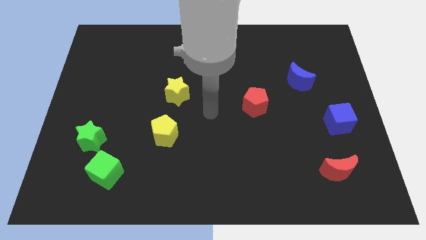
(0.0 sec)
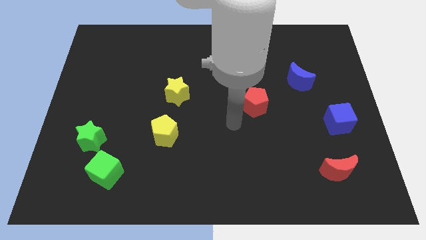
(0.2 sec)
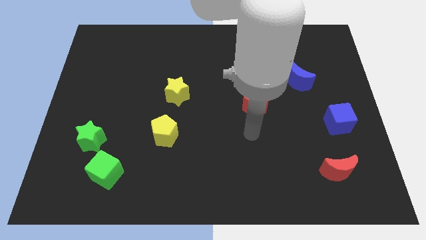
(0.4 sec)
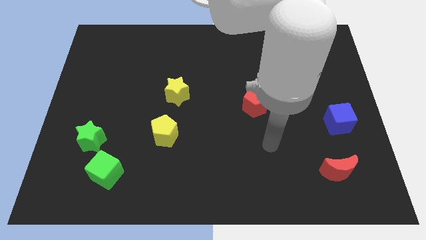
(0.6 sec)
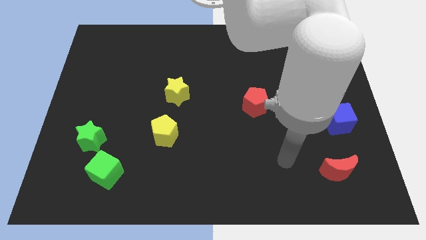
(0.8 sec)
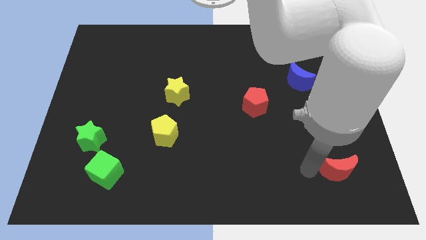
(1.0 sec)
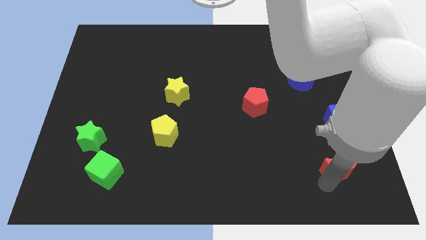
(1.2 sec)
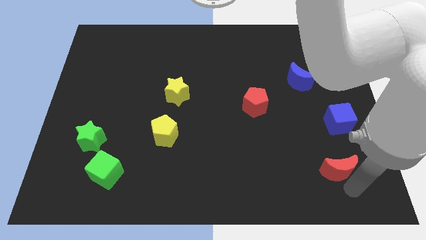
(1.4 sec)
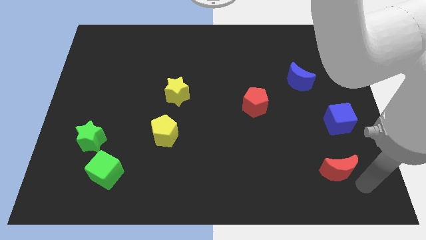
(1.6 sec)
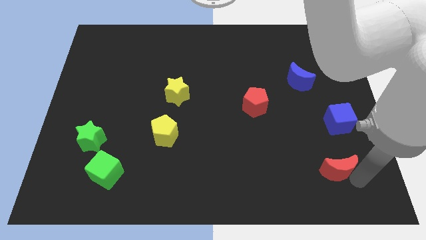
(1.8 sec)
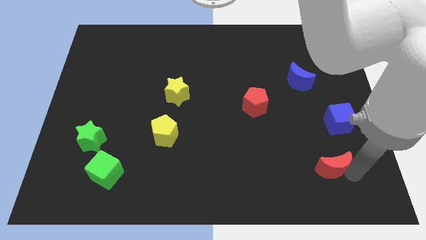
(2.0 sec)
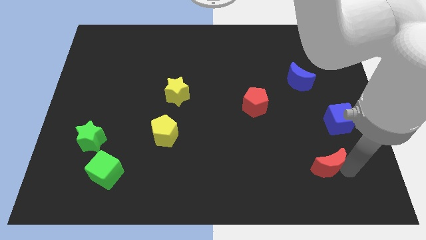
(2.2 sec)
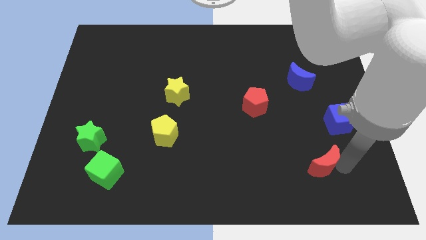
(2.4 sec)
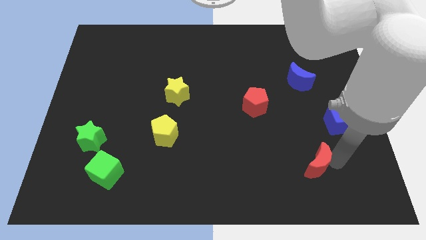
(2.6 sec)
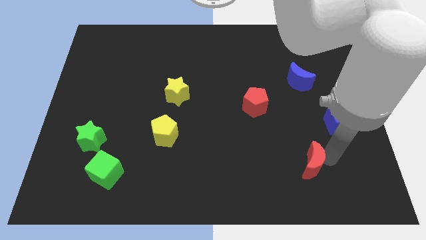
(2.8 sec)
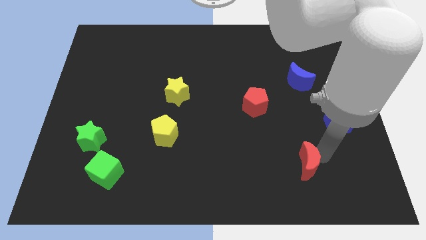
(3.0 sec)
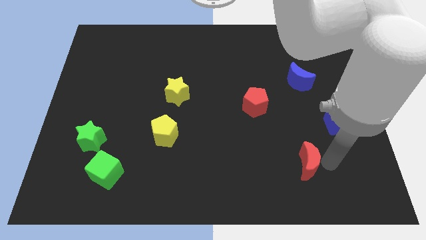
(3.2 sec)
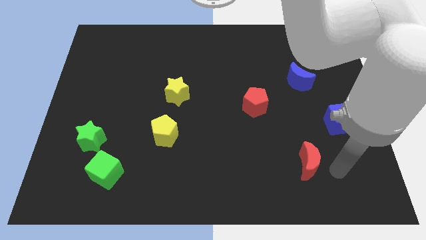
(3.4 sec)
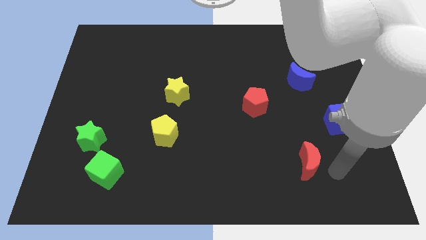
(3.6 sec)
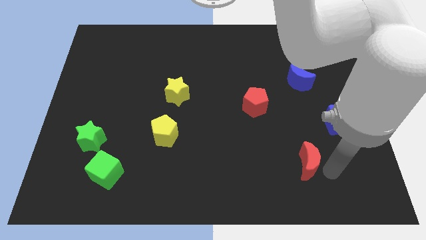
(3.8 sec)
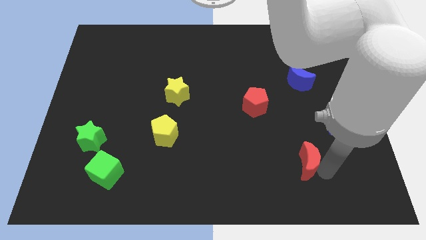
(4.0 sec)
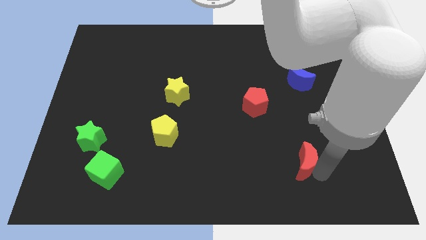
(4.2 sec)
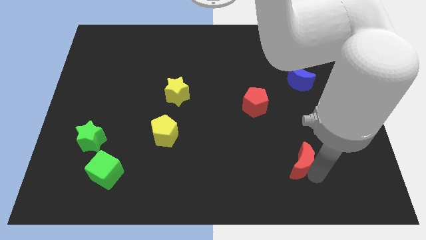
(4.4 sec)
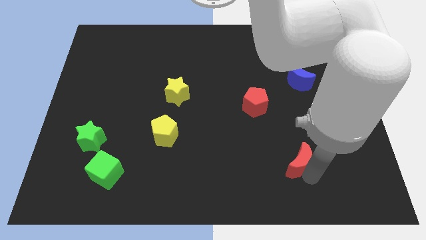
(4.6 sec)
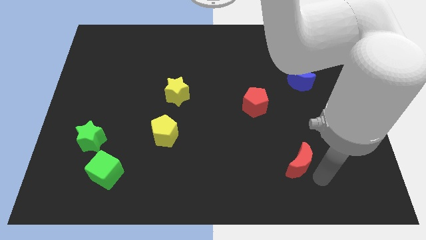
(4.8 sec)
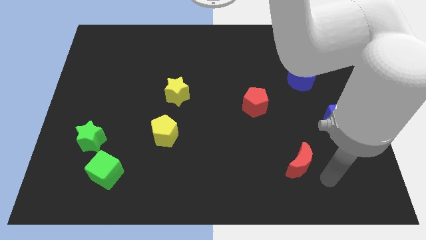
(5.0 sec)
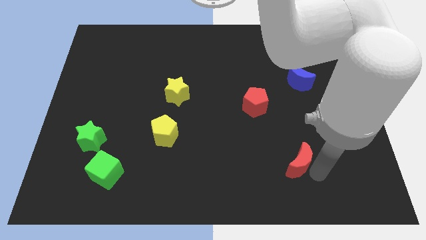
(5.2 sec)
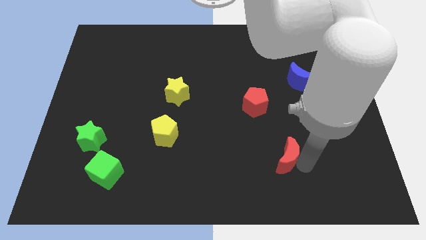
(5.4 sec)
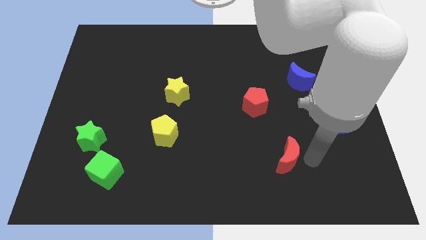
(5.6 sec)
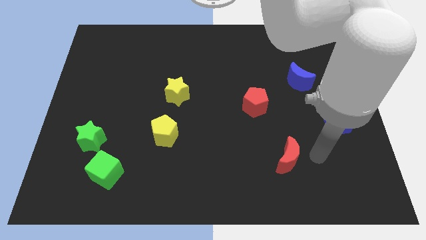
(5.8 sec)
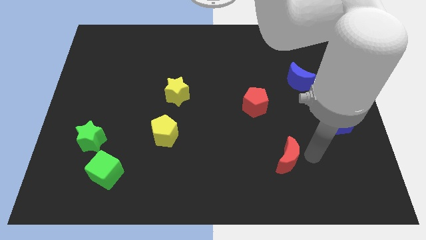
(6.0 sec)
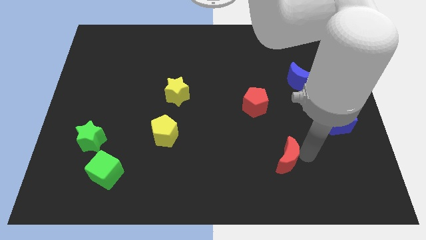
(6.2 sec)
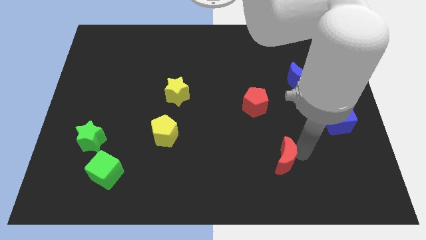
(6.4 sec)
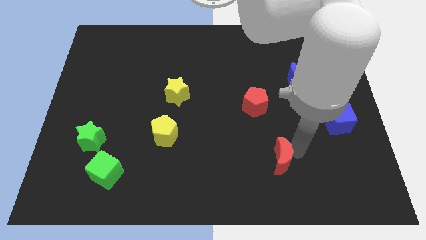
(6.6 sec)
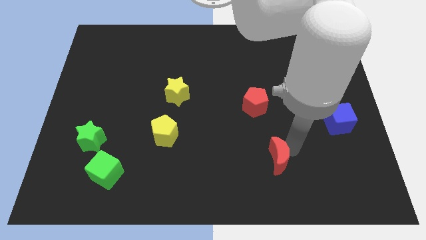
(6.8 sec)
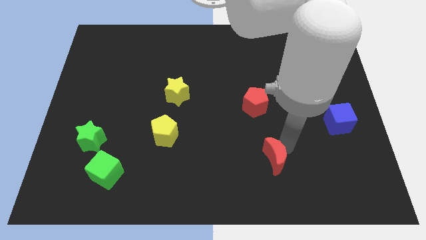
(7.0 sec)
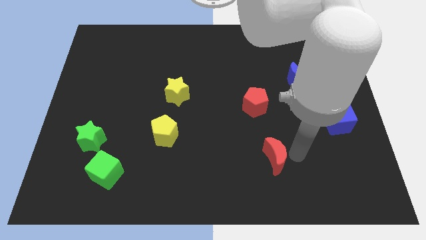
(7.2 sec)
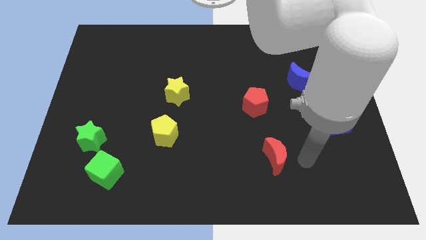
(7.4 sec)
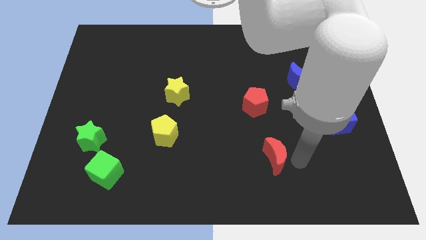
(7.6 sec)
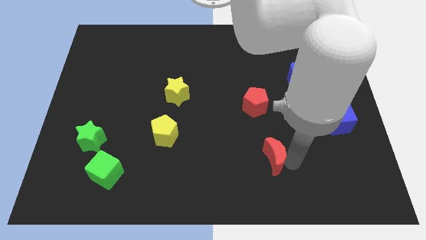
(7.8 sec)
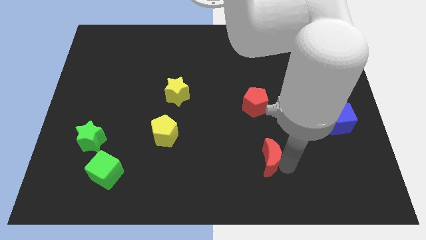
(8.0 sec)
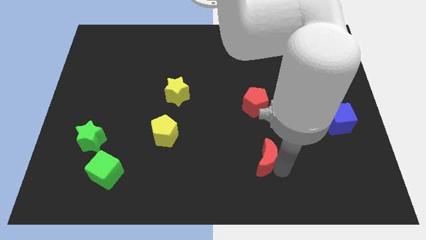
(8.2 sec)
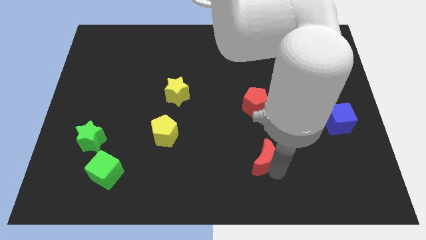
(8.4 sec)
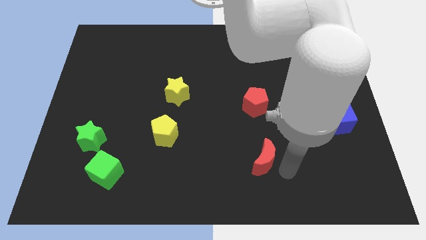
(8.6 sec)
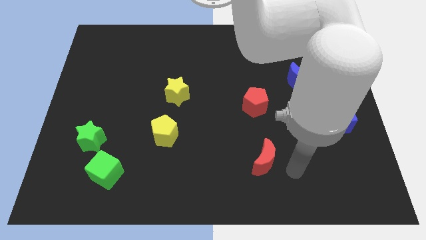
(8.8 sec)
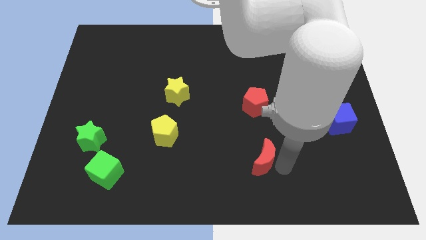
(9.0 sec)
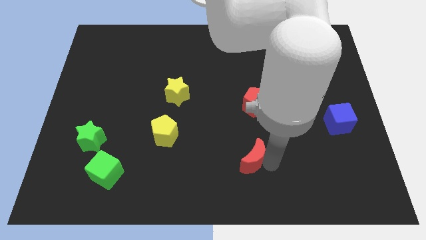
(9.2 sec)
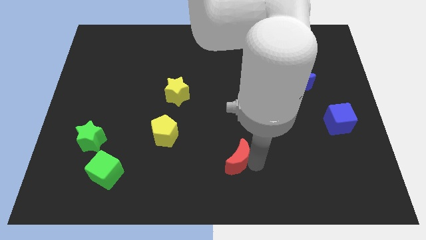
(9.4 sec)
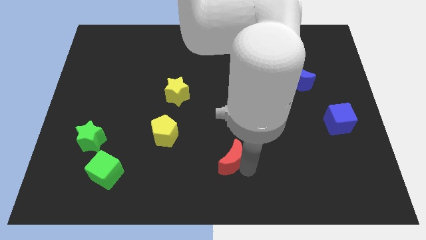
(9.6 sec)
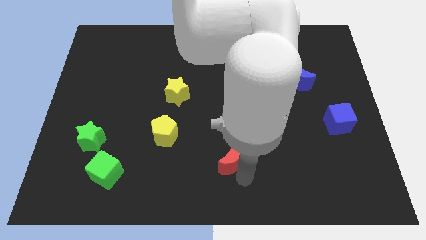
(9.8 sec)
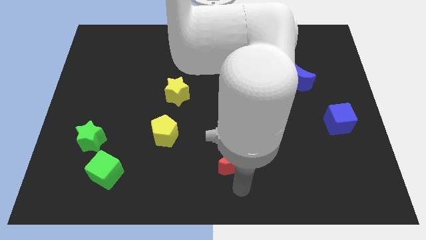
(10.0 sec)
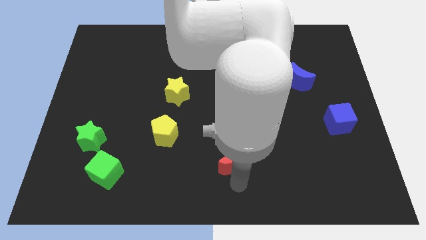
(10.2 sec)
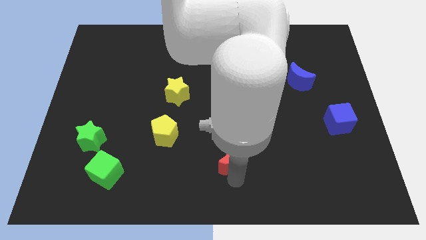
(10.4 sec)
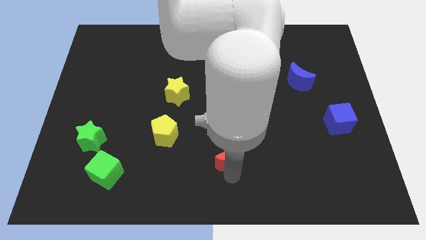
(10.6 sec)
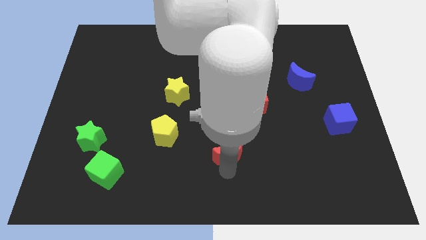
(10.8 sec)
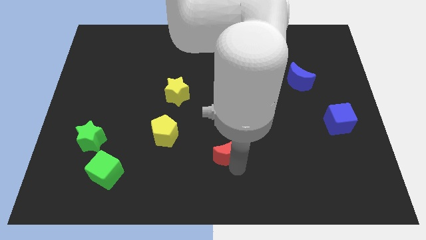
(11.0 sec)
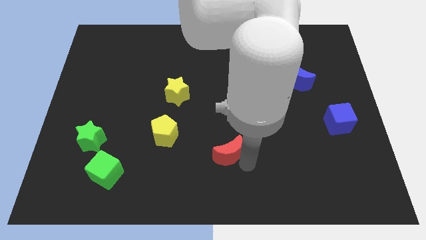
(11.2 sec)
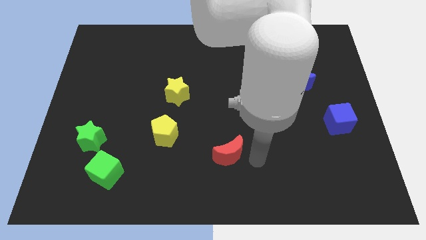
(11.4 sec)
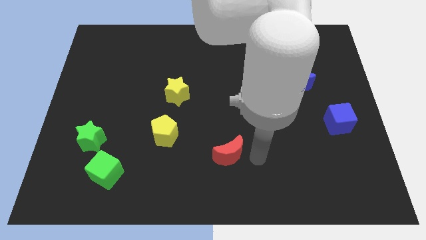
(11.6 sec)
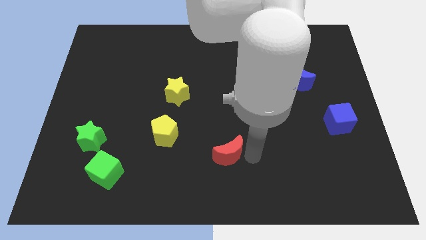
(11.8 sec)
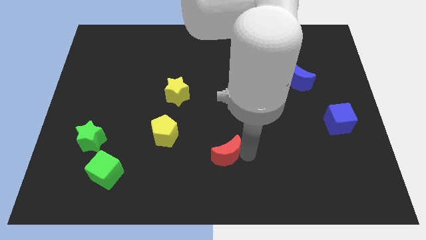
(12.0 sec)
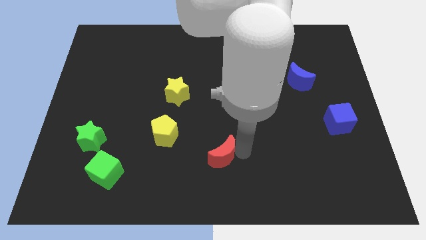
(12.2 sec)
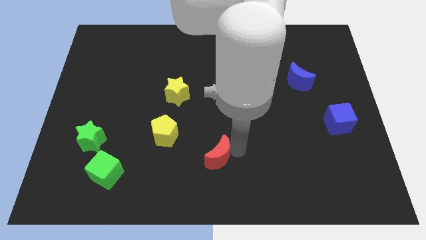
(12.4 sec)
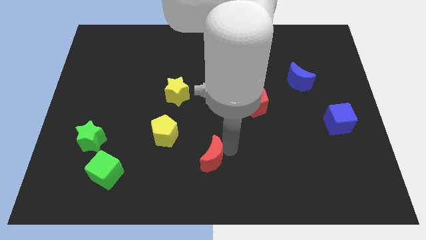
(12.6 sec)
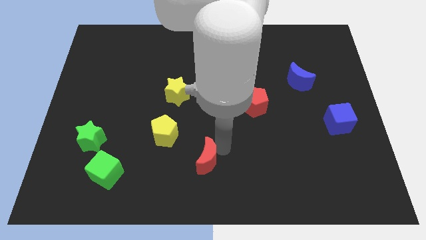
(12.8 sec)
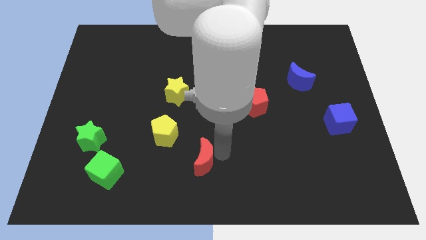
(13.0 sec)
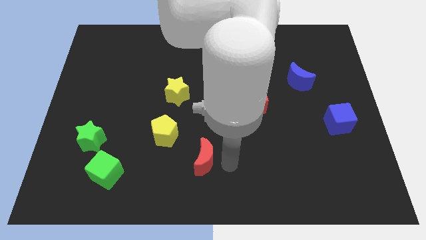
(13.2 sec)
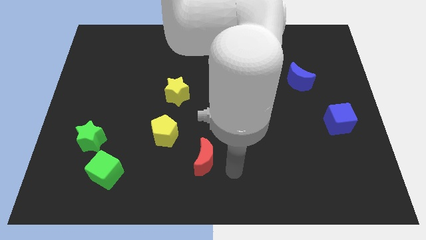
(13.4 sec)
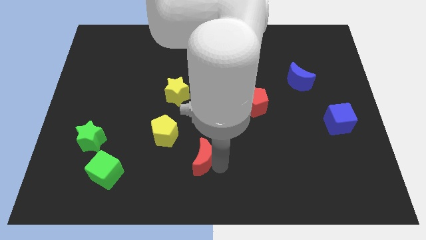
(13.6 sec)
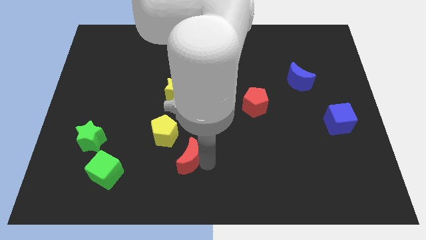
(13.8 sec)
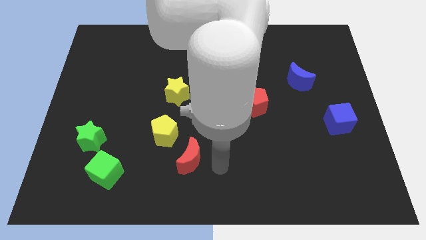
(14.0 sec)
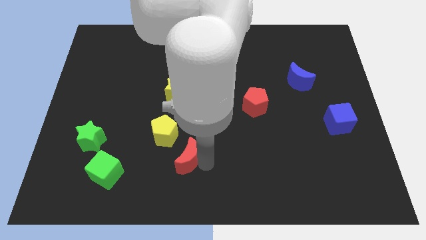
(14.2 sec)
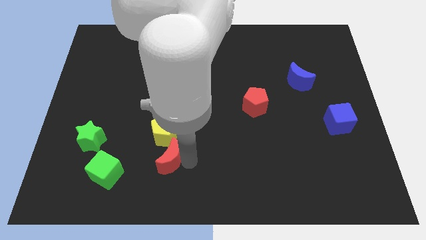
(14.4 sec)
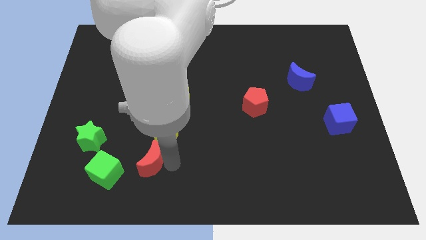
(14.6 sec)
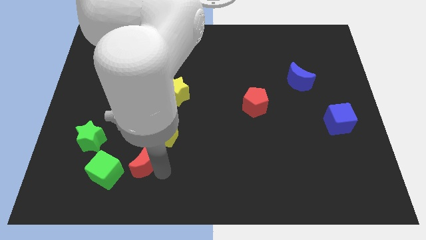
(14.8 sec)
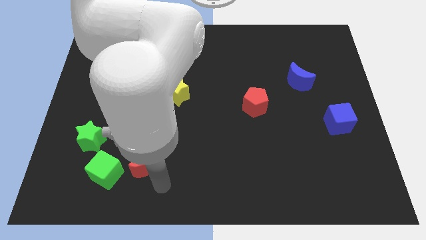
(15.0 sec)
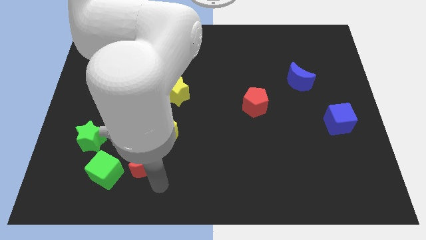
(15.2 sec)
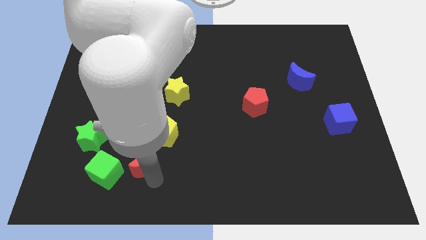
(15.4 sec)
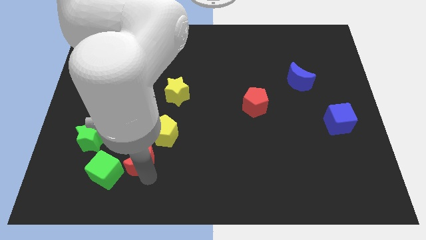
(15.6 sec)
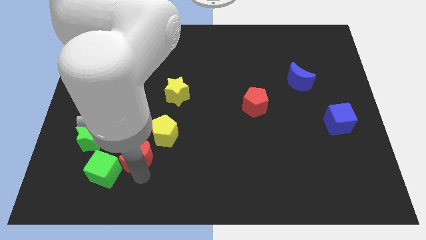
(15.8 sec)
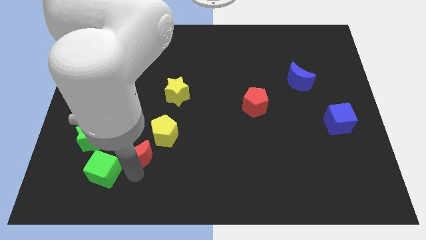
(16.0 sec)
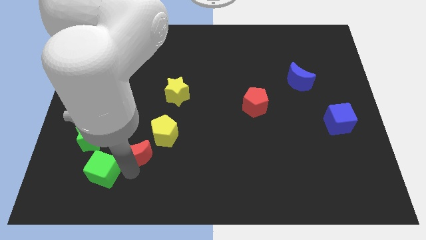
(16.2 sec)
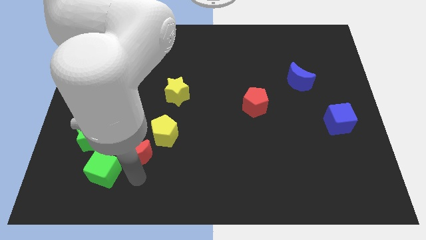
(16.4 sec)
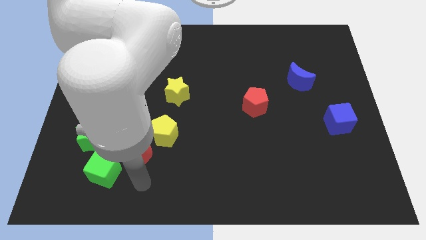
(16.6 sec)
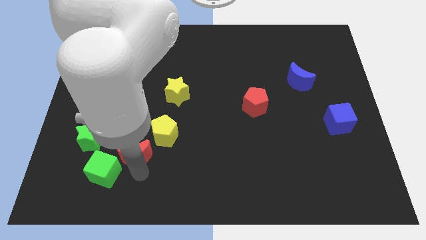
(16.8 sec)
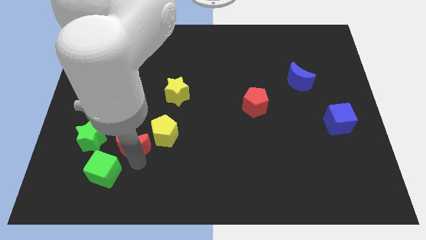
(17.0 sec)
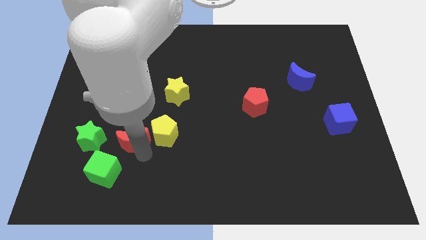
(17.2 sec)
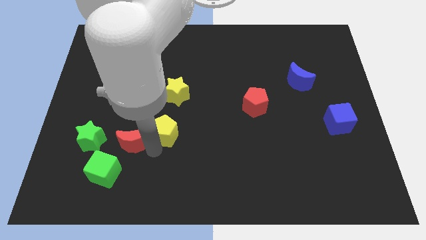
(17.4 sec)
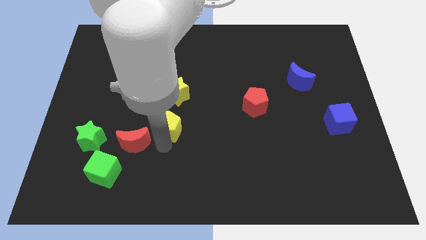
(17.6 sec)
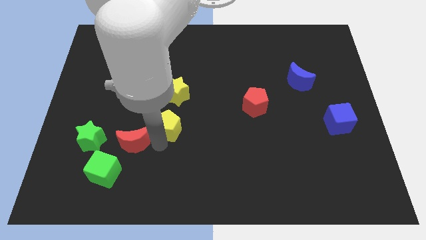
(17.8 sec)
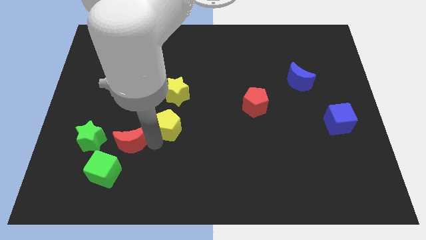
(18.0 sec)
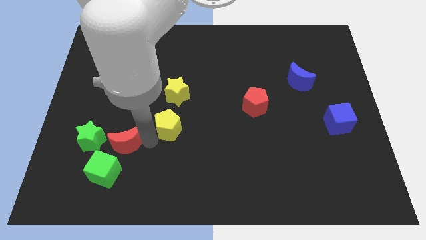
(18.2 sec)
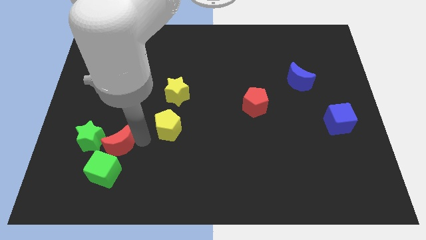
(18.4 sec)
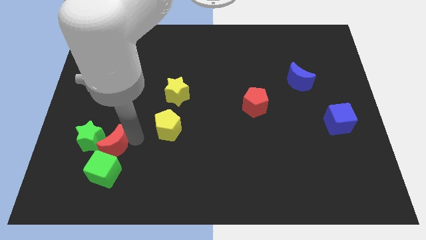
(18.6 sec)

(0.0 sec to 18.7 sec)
slide the red moon next to the green star
